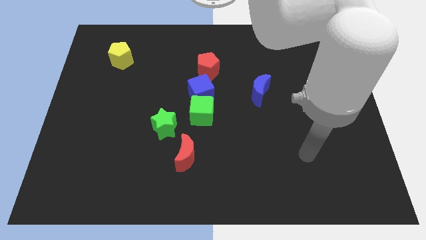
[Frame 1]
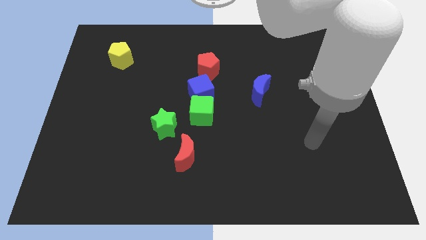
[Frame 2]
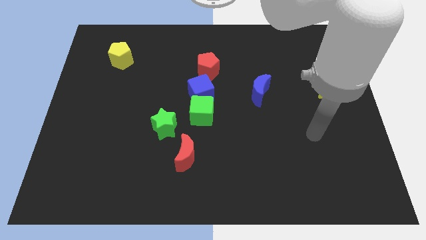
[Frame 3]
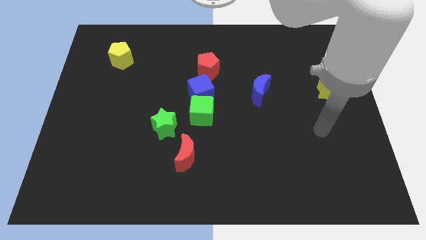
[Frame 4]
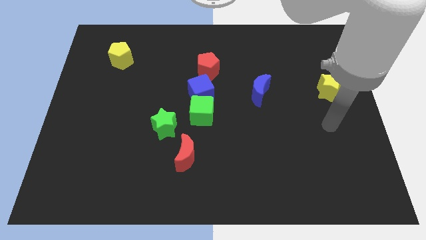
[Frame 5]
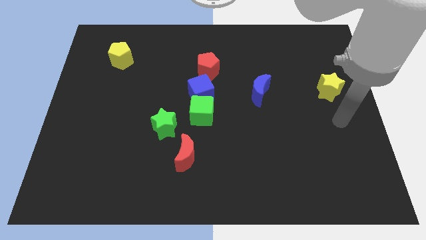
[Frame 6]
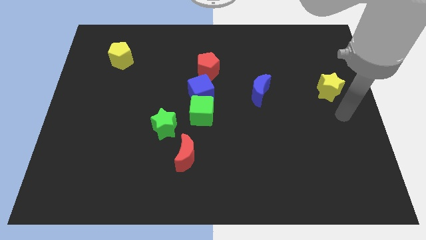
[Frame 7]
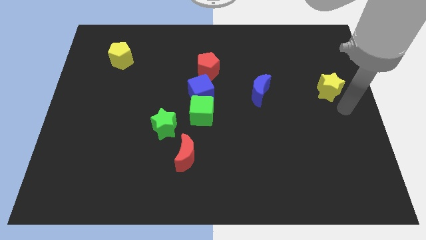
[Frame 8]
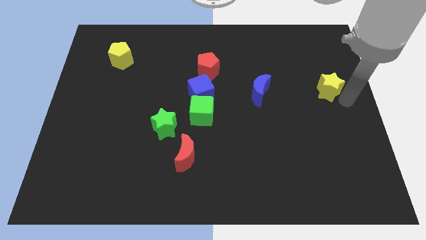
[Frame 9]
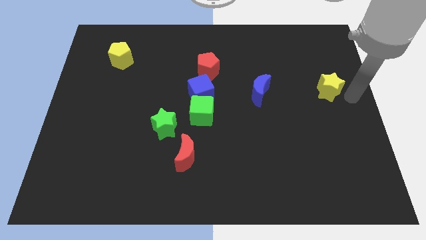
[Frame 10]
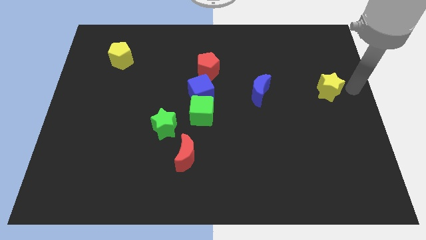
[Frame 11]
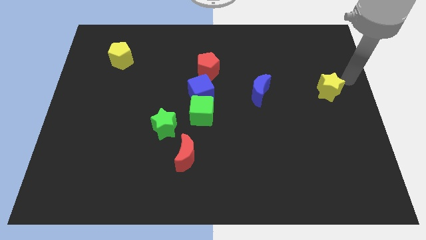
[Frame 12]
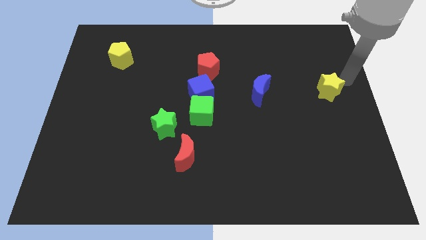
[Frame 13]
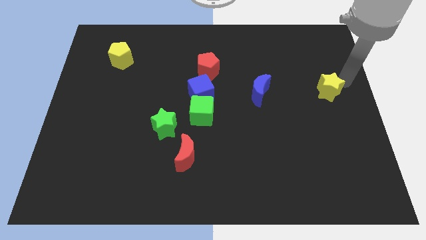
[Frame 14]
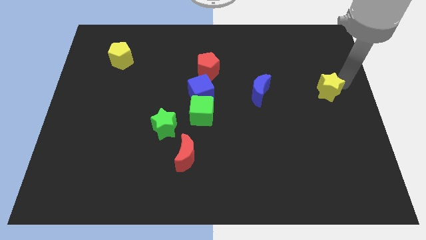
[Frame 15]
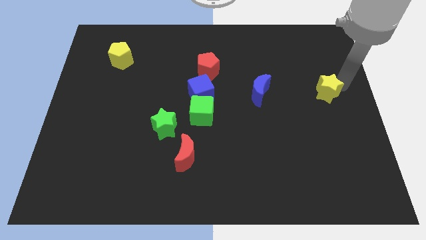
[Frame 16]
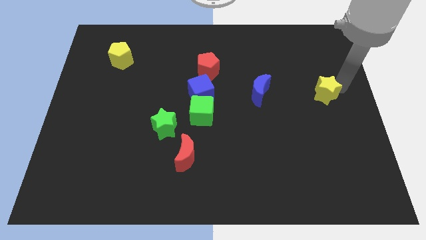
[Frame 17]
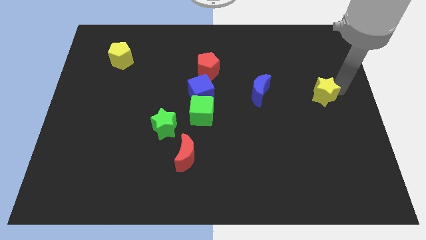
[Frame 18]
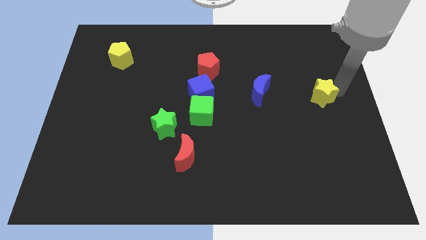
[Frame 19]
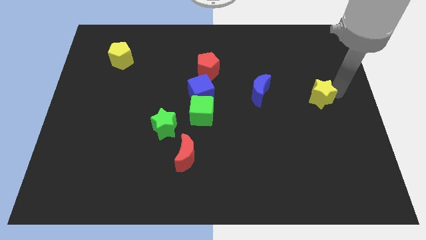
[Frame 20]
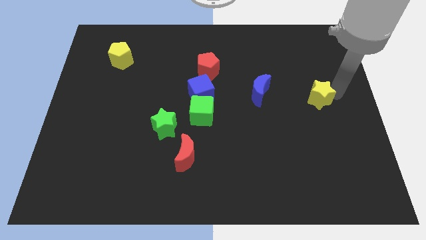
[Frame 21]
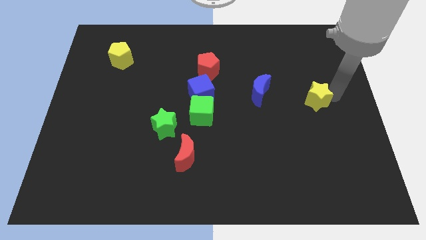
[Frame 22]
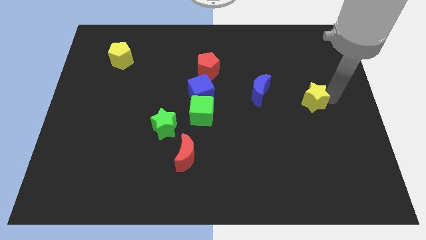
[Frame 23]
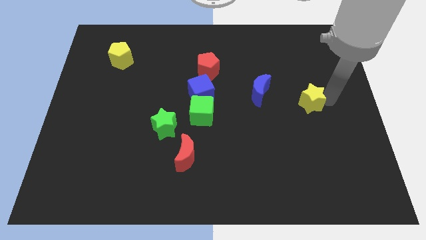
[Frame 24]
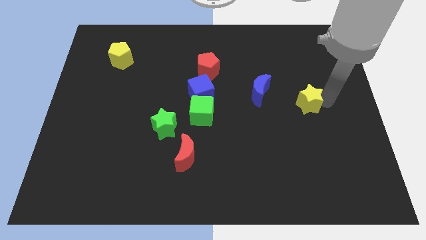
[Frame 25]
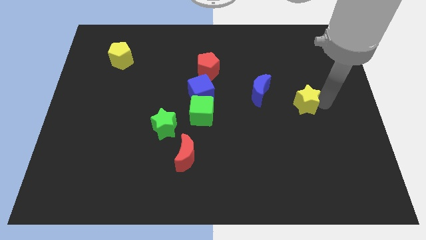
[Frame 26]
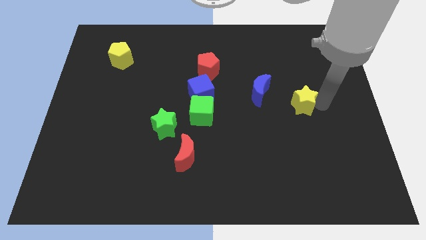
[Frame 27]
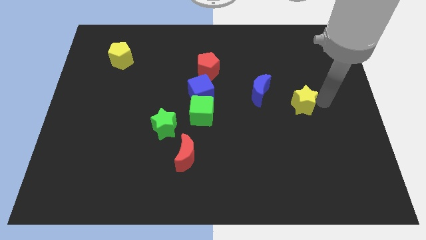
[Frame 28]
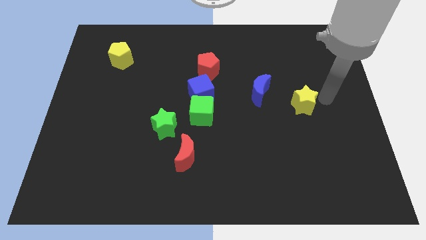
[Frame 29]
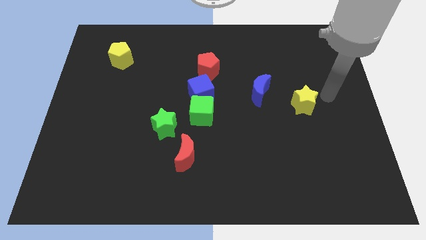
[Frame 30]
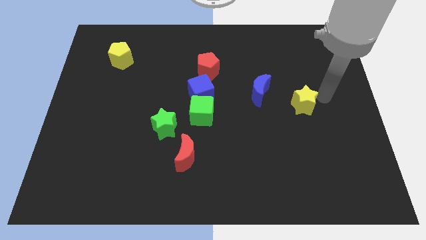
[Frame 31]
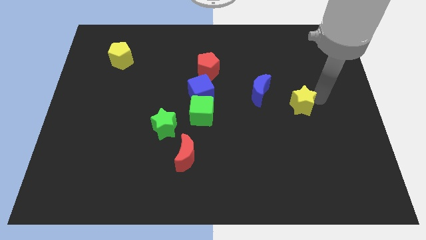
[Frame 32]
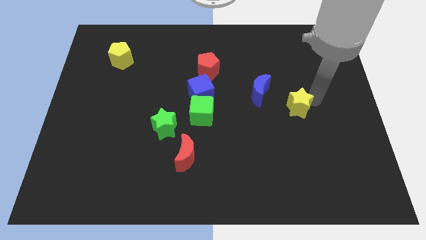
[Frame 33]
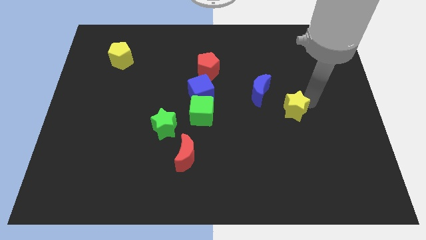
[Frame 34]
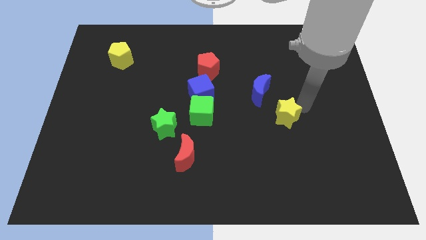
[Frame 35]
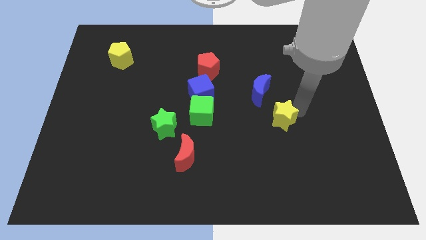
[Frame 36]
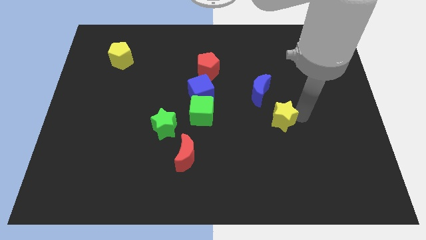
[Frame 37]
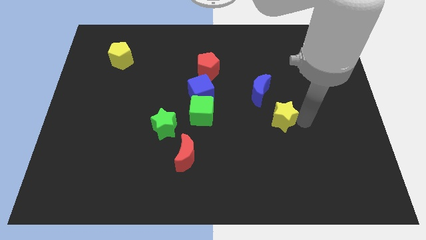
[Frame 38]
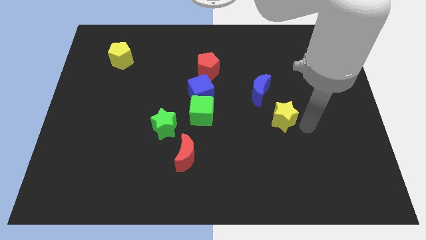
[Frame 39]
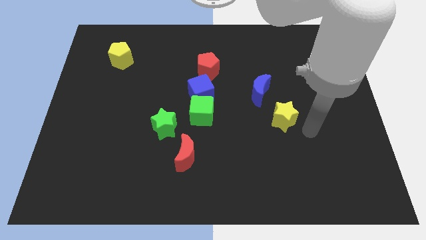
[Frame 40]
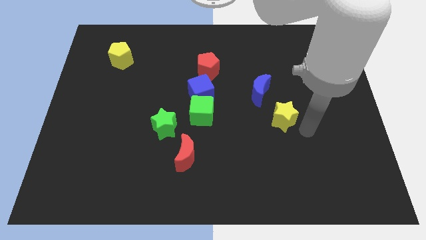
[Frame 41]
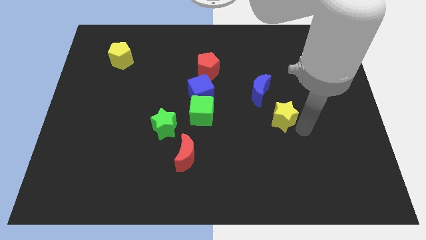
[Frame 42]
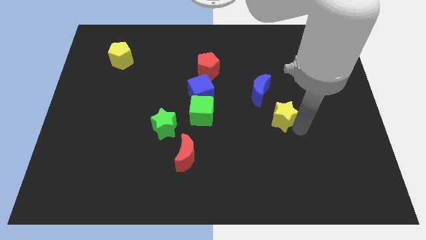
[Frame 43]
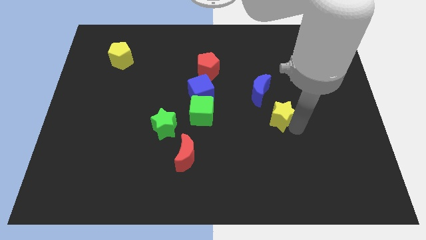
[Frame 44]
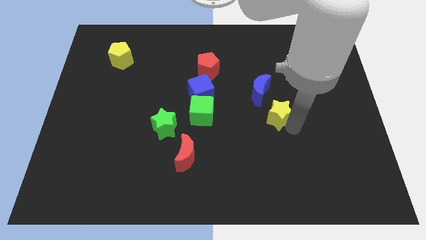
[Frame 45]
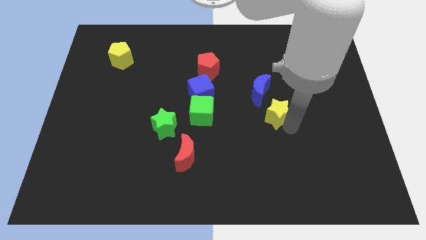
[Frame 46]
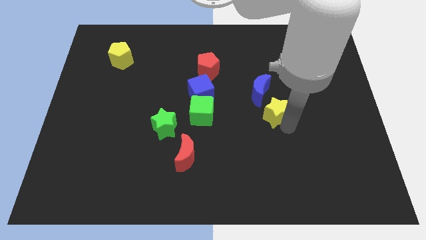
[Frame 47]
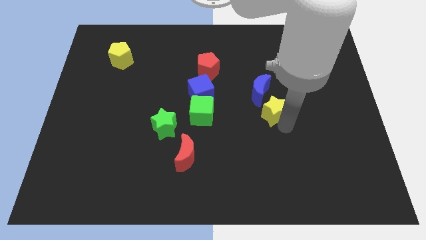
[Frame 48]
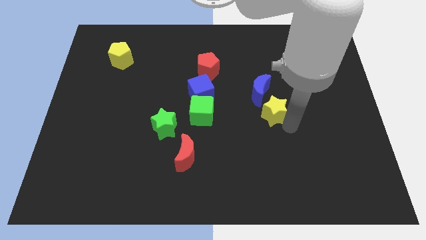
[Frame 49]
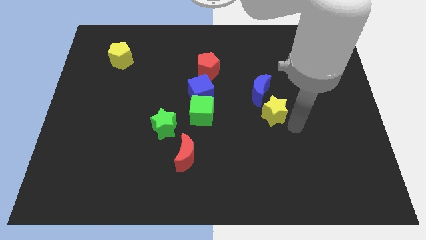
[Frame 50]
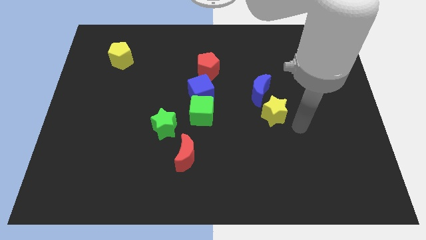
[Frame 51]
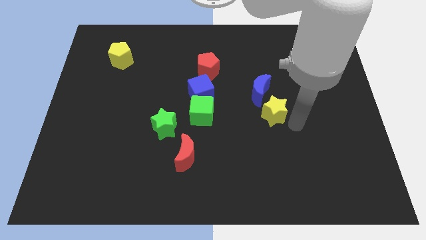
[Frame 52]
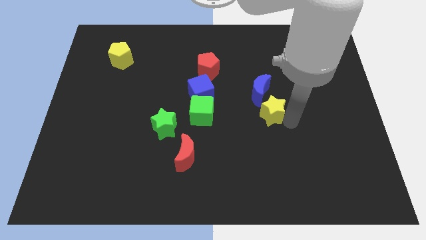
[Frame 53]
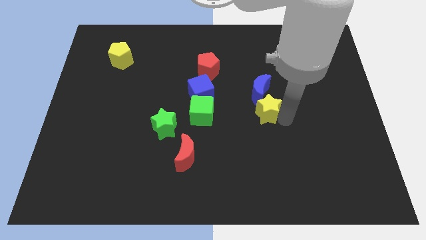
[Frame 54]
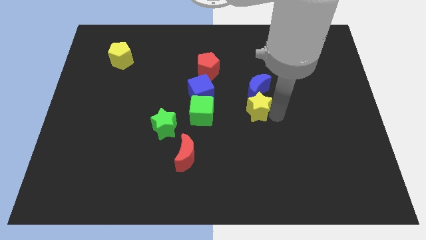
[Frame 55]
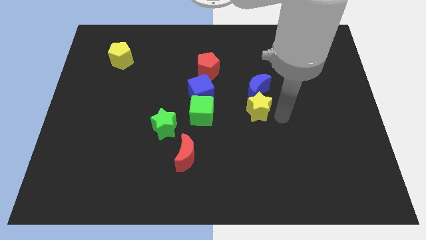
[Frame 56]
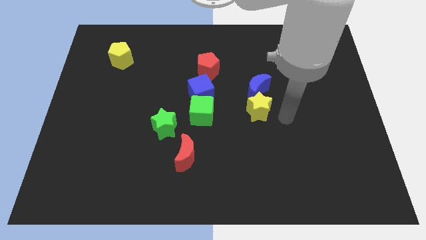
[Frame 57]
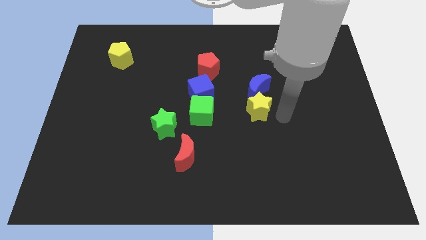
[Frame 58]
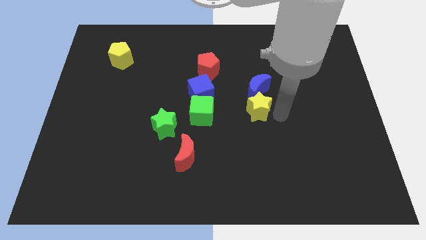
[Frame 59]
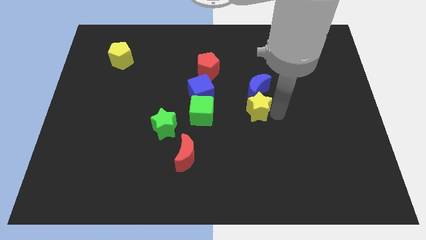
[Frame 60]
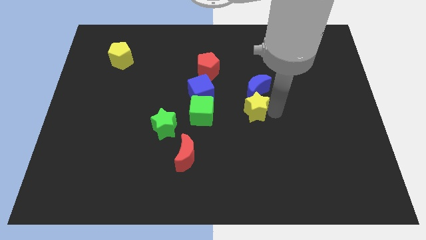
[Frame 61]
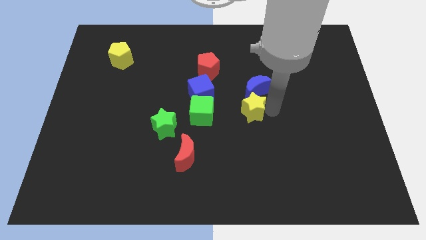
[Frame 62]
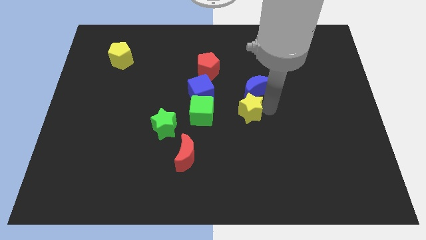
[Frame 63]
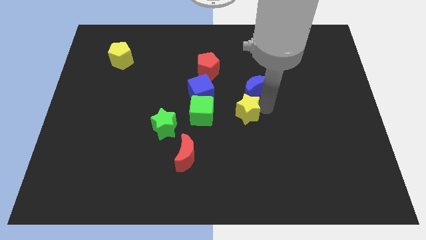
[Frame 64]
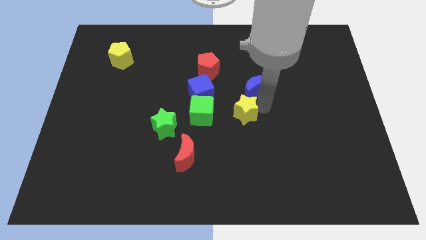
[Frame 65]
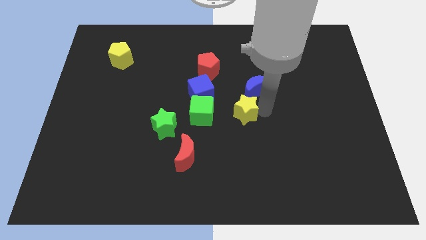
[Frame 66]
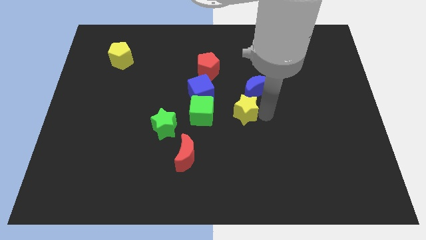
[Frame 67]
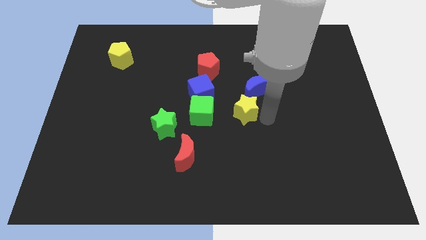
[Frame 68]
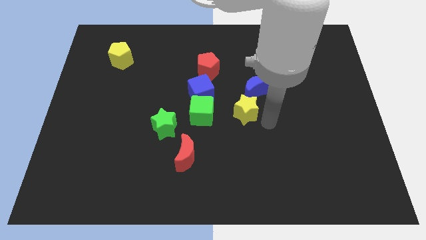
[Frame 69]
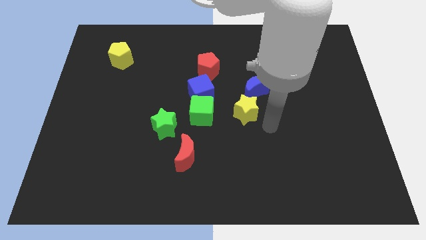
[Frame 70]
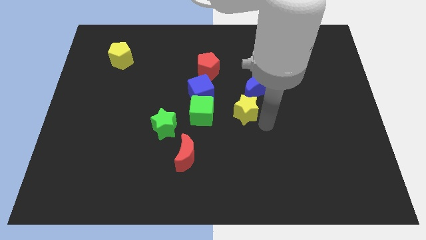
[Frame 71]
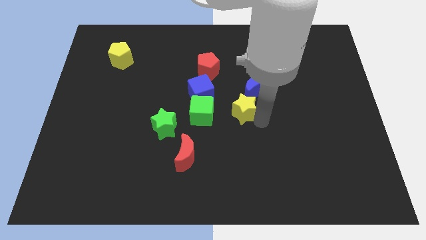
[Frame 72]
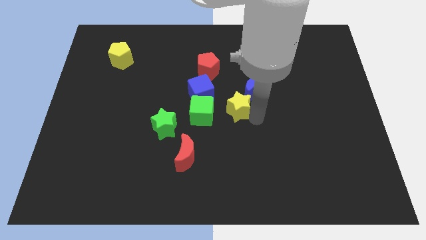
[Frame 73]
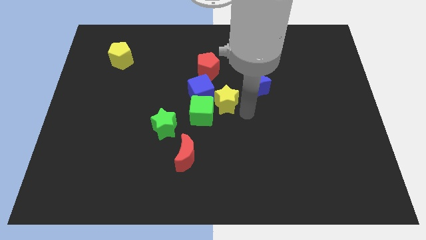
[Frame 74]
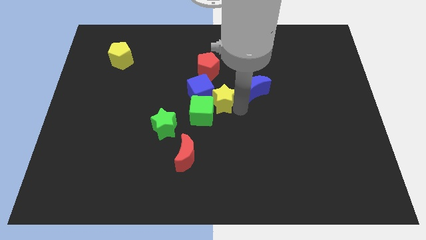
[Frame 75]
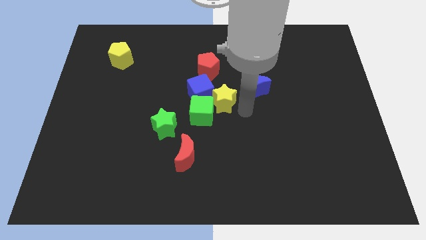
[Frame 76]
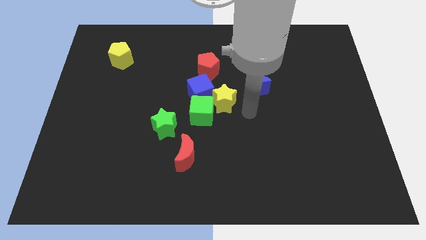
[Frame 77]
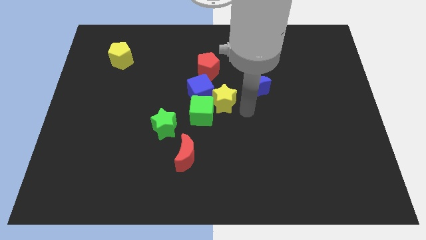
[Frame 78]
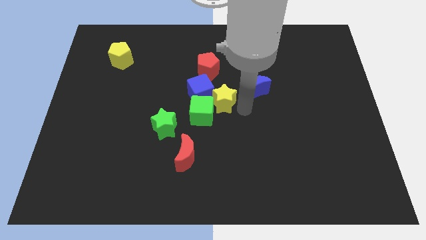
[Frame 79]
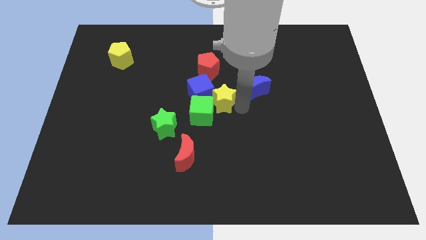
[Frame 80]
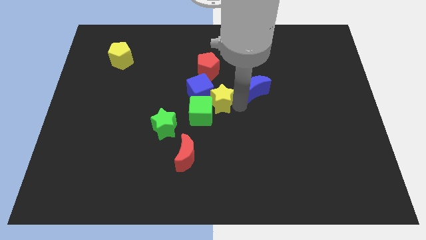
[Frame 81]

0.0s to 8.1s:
move the yellow star close to the blue cube
